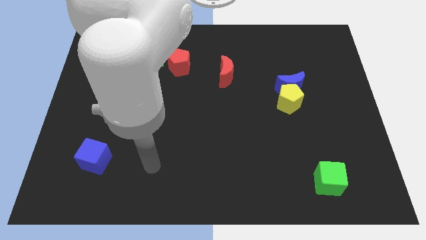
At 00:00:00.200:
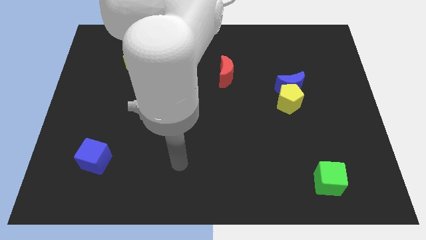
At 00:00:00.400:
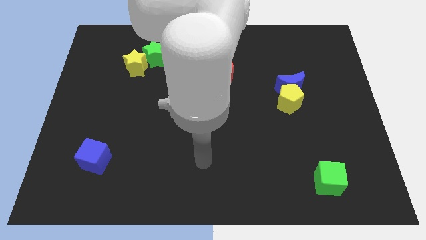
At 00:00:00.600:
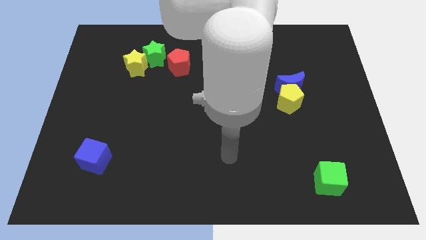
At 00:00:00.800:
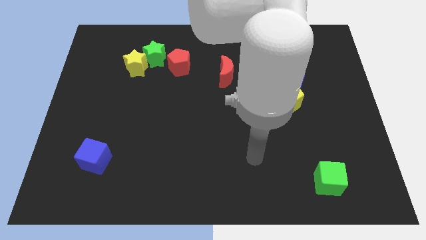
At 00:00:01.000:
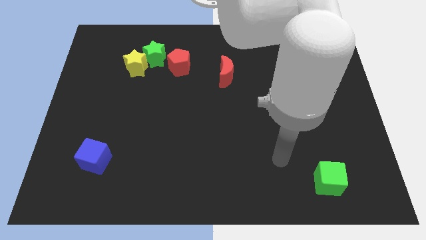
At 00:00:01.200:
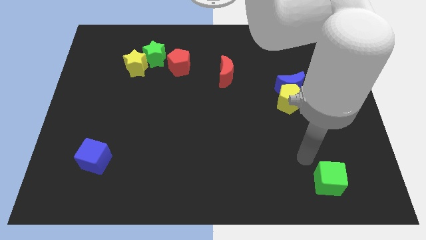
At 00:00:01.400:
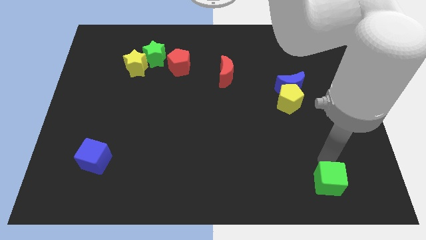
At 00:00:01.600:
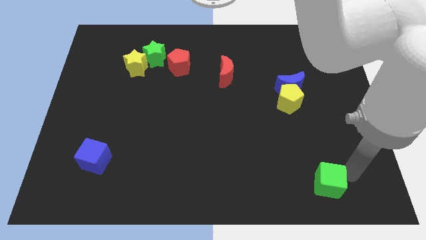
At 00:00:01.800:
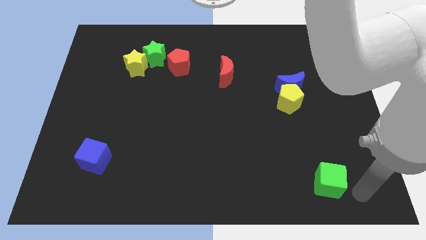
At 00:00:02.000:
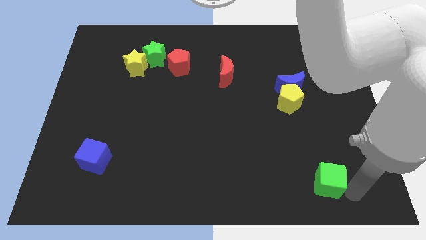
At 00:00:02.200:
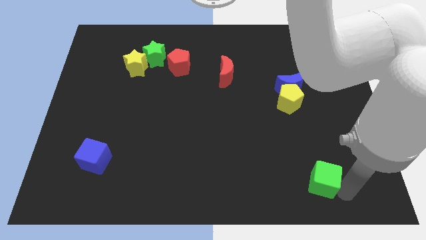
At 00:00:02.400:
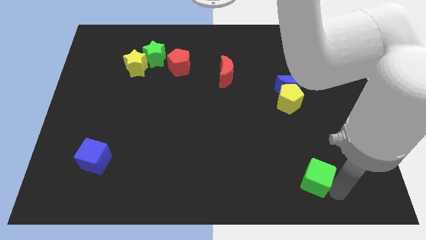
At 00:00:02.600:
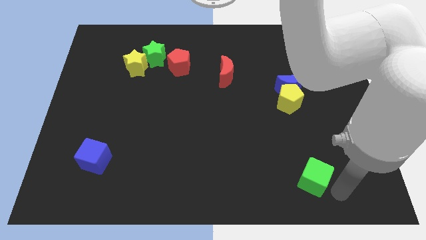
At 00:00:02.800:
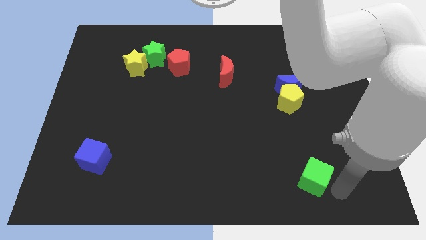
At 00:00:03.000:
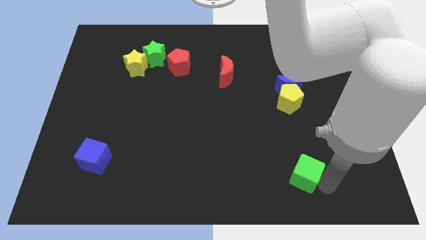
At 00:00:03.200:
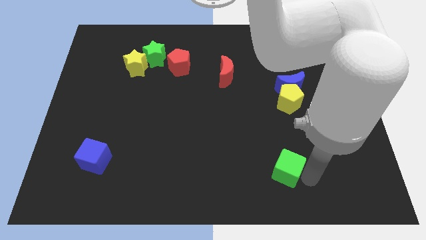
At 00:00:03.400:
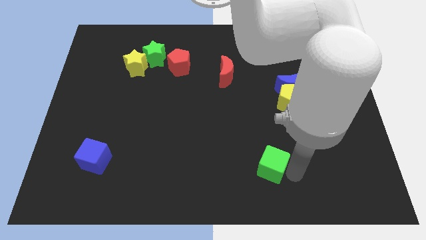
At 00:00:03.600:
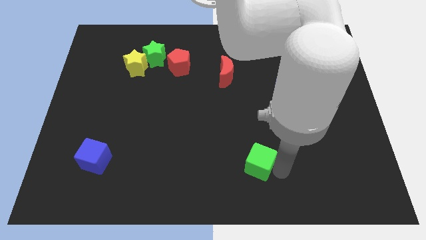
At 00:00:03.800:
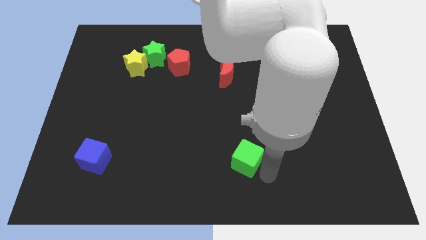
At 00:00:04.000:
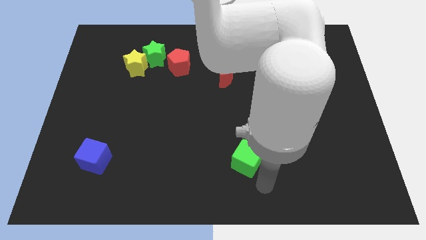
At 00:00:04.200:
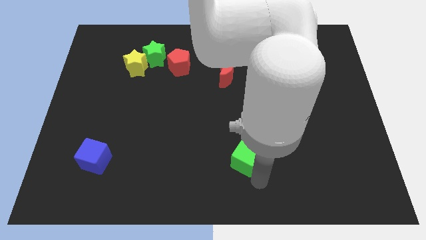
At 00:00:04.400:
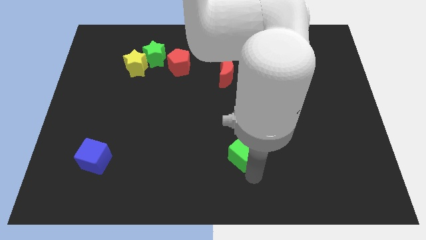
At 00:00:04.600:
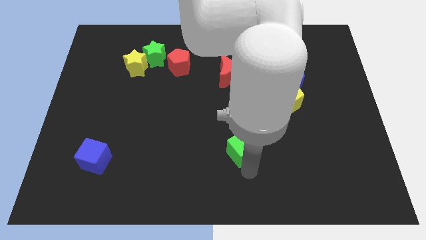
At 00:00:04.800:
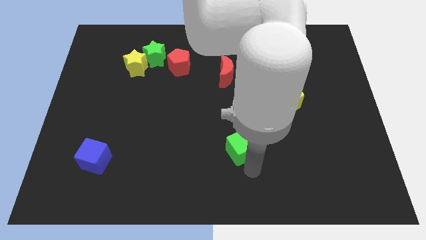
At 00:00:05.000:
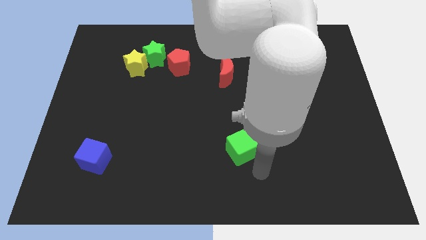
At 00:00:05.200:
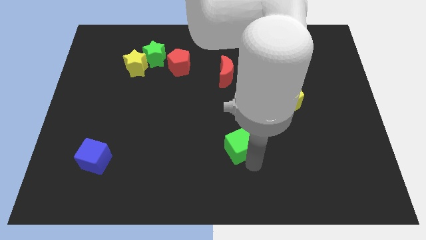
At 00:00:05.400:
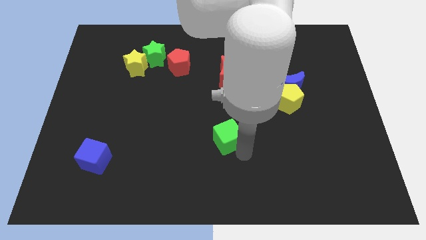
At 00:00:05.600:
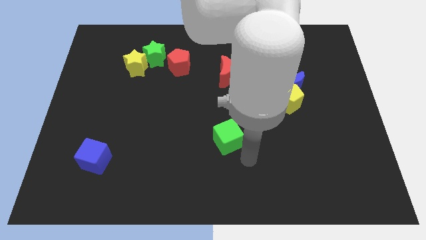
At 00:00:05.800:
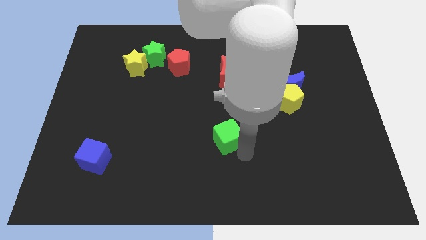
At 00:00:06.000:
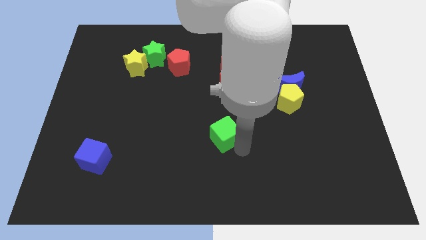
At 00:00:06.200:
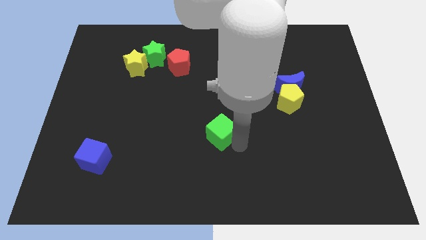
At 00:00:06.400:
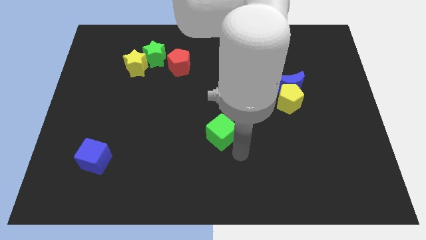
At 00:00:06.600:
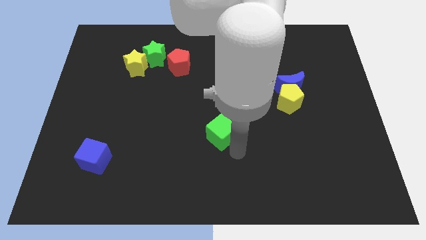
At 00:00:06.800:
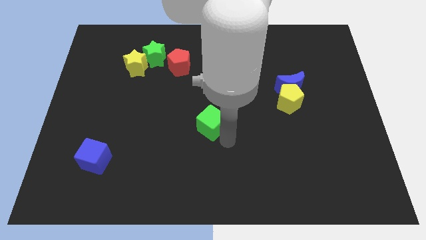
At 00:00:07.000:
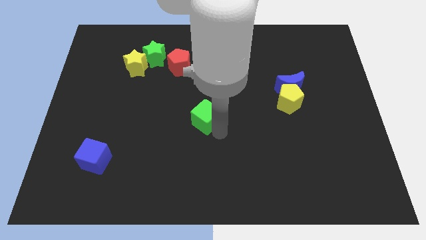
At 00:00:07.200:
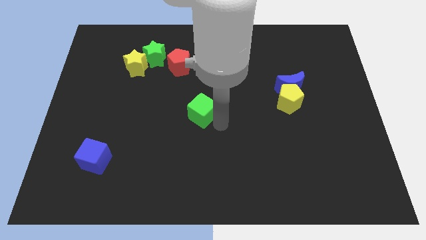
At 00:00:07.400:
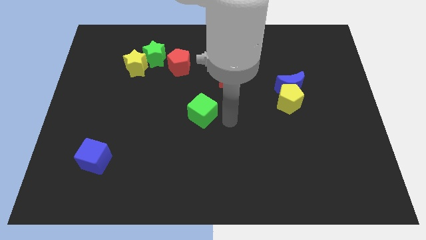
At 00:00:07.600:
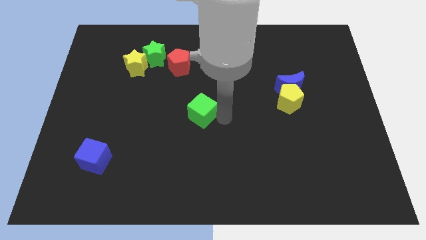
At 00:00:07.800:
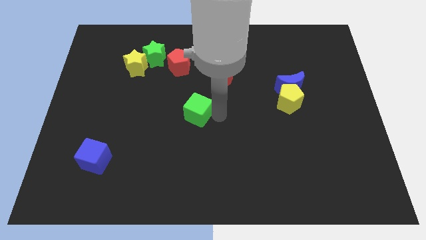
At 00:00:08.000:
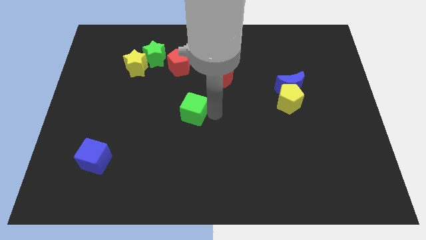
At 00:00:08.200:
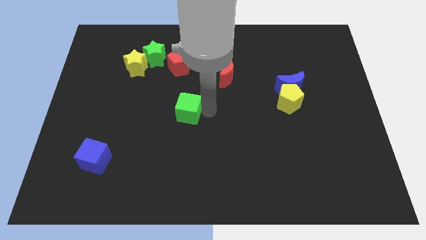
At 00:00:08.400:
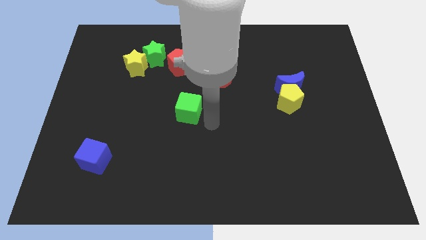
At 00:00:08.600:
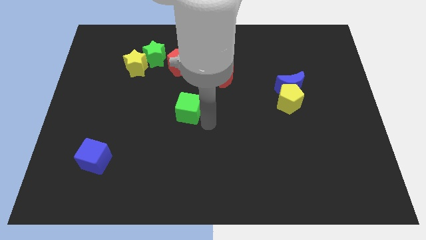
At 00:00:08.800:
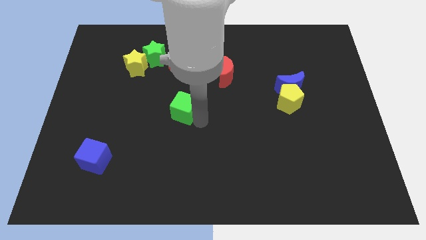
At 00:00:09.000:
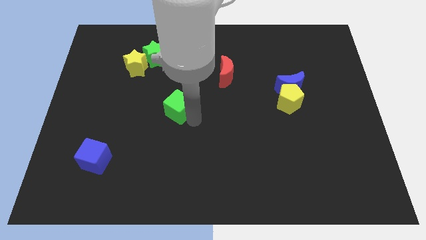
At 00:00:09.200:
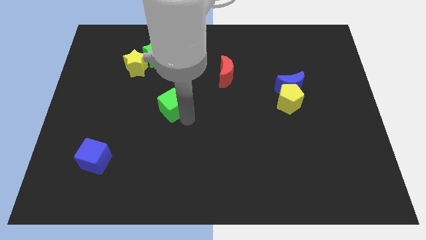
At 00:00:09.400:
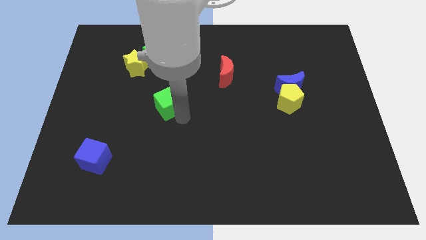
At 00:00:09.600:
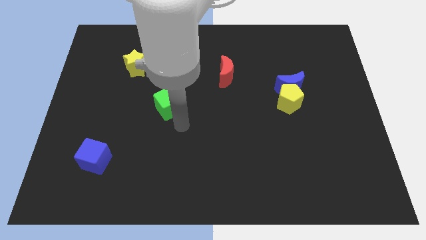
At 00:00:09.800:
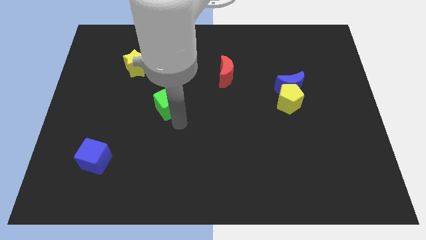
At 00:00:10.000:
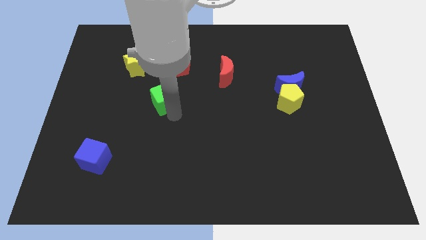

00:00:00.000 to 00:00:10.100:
move the green cube to the bottom side of the green star

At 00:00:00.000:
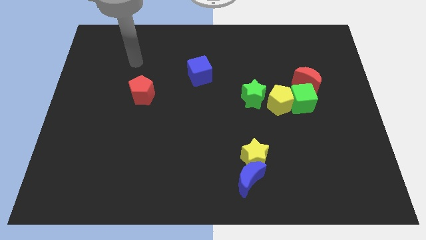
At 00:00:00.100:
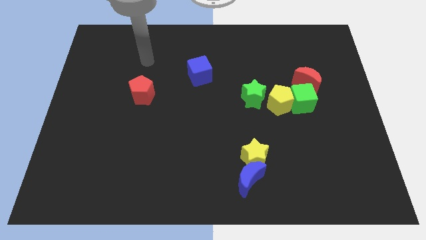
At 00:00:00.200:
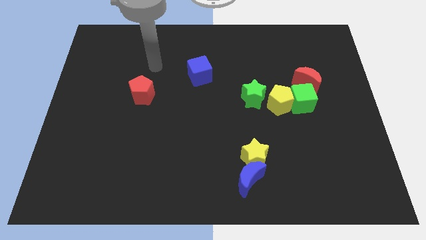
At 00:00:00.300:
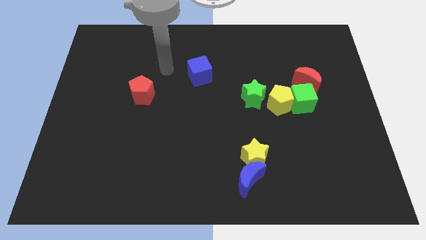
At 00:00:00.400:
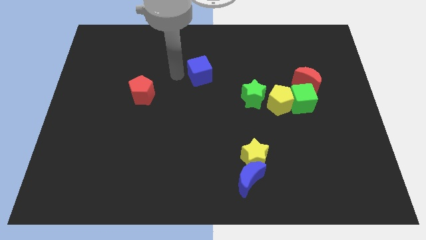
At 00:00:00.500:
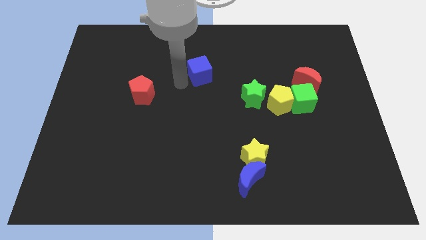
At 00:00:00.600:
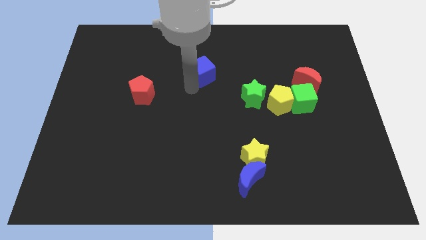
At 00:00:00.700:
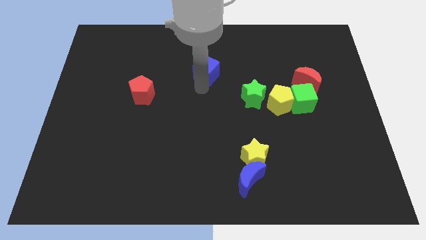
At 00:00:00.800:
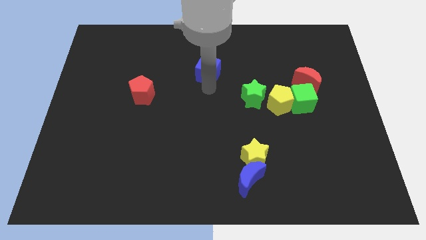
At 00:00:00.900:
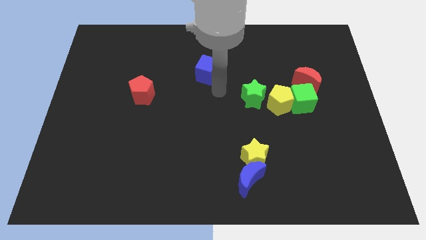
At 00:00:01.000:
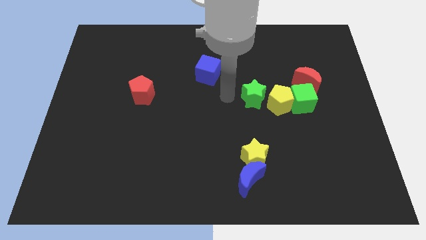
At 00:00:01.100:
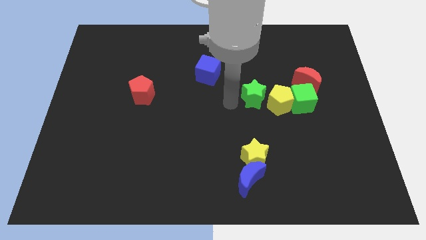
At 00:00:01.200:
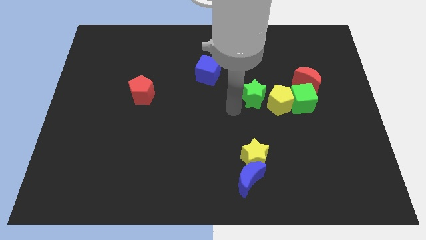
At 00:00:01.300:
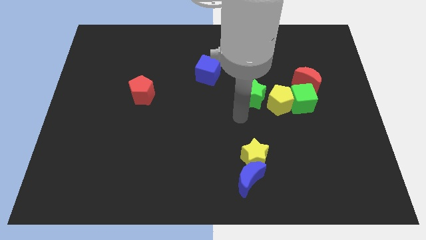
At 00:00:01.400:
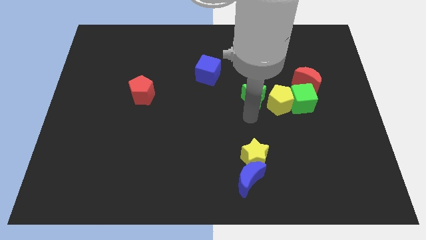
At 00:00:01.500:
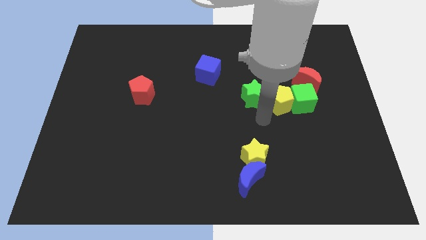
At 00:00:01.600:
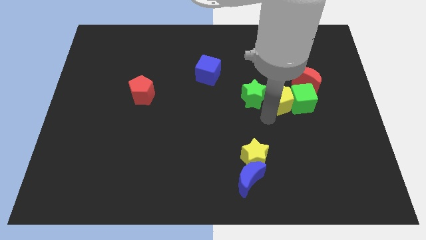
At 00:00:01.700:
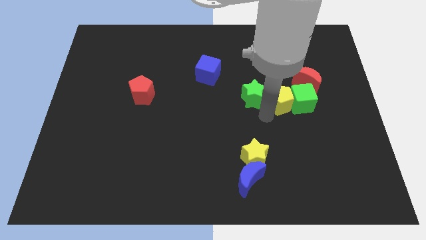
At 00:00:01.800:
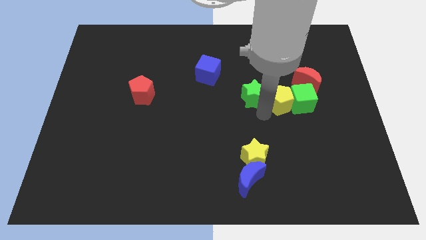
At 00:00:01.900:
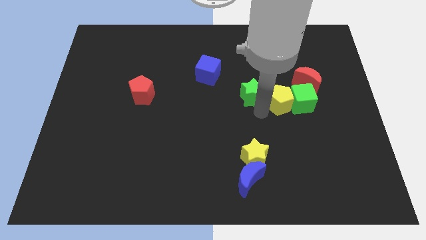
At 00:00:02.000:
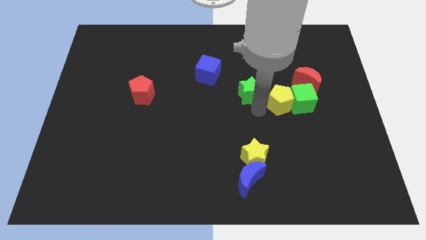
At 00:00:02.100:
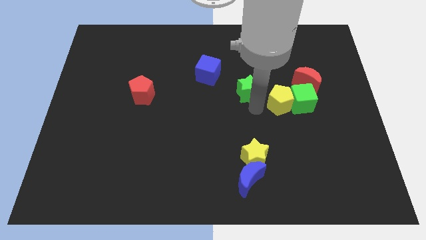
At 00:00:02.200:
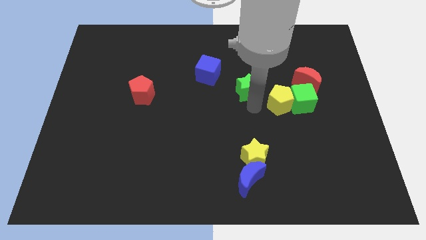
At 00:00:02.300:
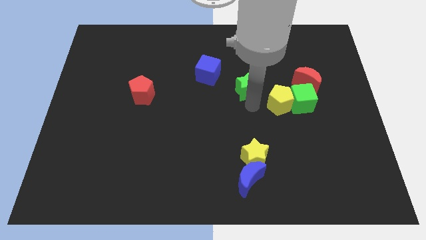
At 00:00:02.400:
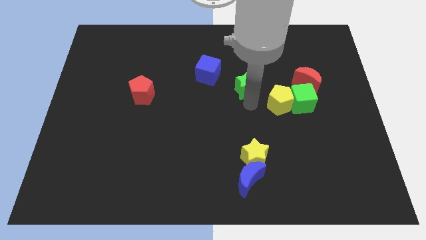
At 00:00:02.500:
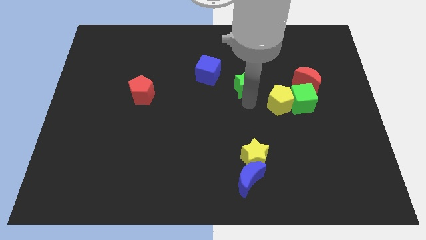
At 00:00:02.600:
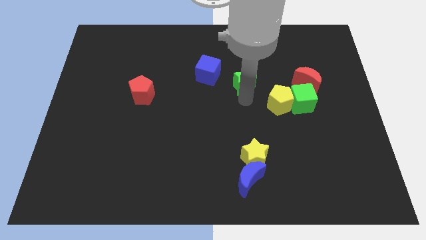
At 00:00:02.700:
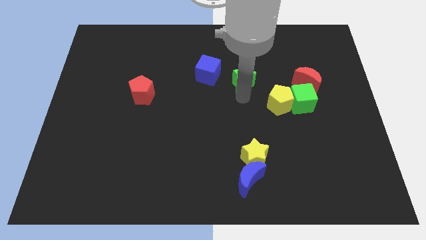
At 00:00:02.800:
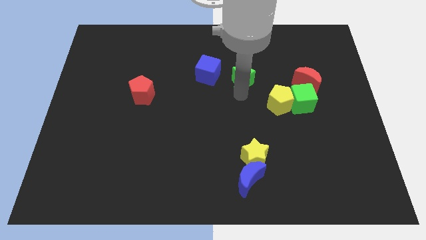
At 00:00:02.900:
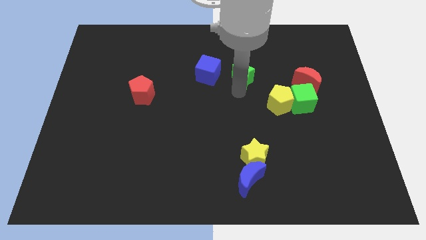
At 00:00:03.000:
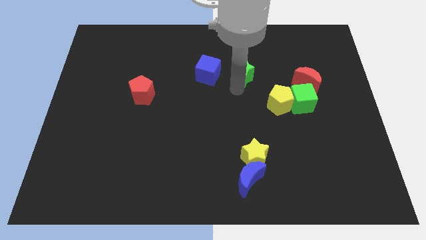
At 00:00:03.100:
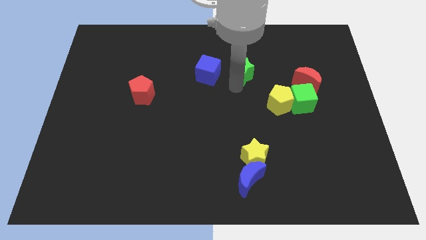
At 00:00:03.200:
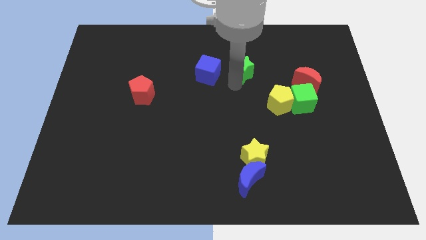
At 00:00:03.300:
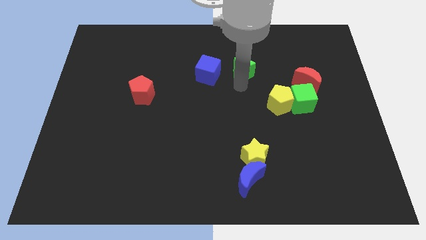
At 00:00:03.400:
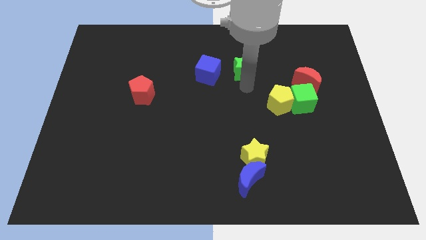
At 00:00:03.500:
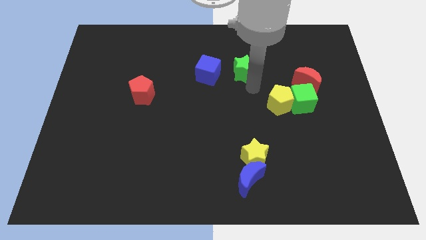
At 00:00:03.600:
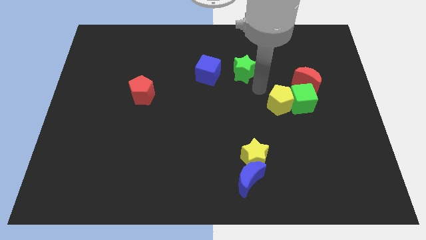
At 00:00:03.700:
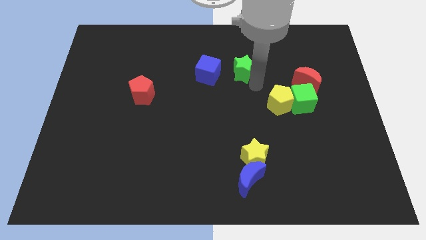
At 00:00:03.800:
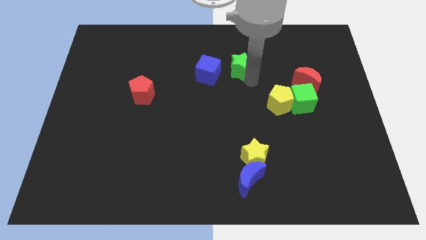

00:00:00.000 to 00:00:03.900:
put the green star to the top right side of the blue cube
